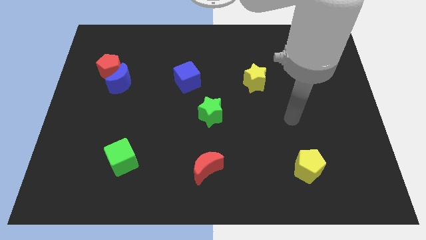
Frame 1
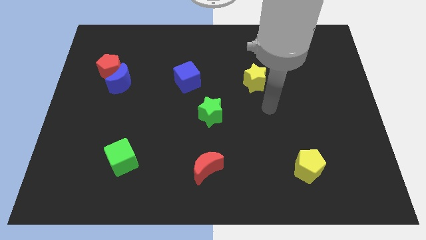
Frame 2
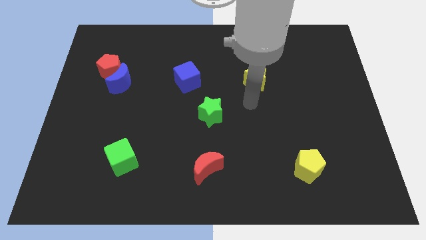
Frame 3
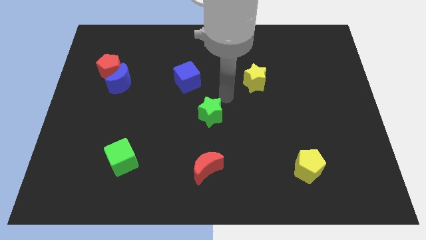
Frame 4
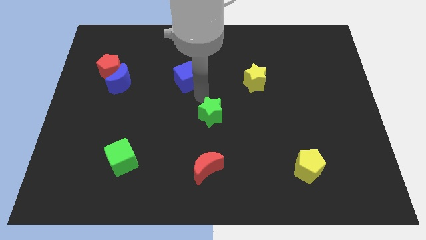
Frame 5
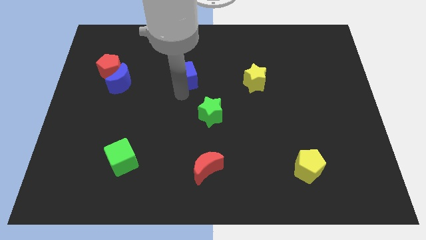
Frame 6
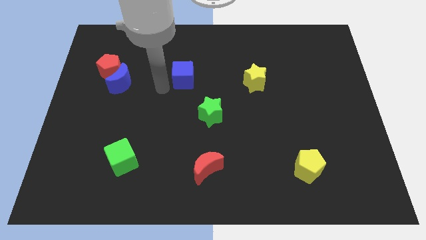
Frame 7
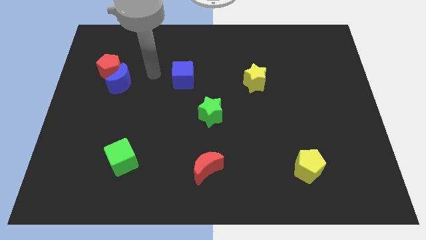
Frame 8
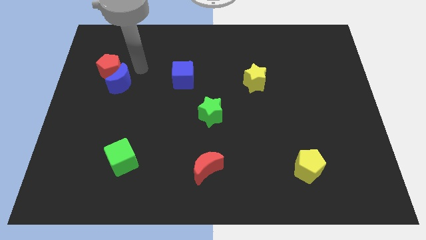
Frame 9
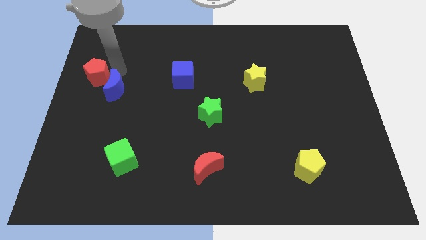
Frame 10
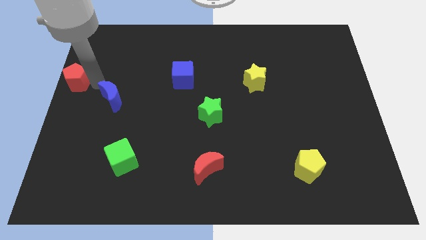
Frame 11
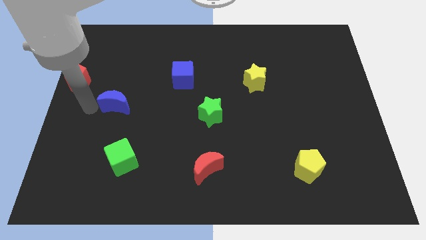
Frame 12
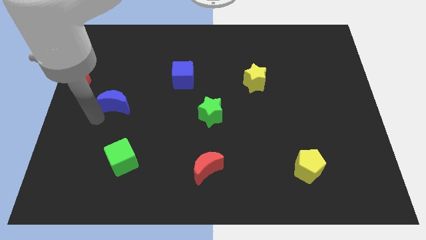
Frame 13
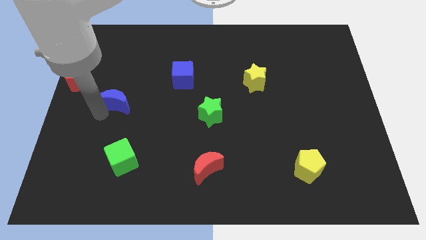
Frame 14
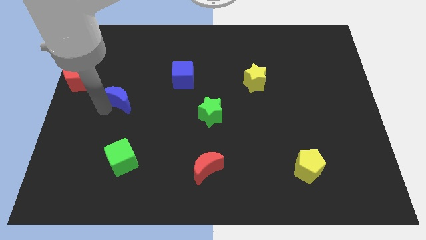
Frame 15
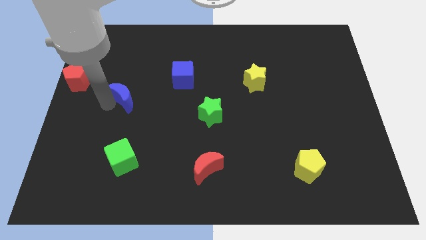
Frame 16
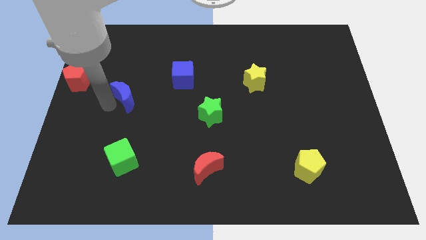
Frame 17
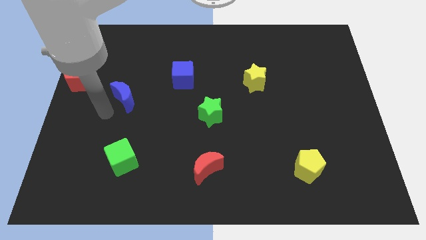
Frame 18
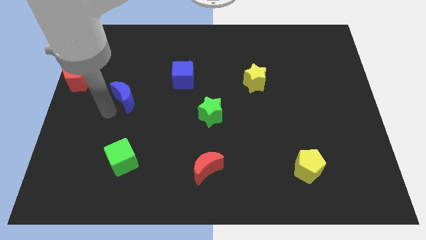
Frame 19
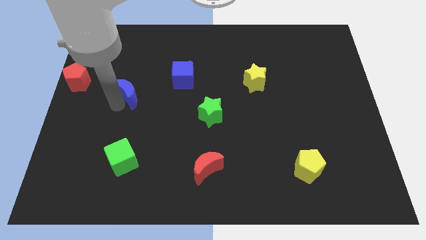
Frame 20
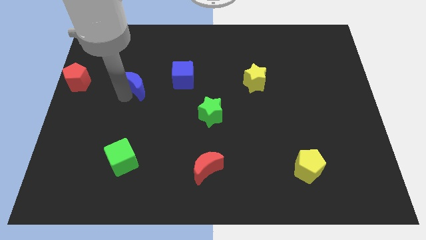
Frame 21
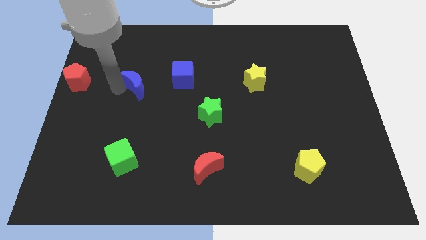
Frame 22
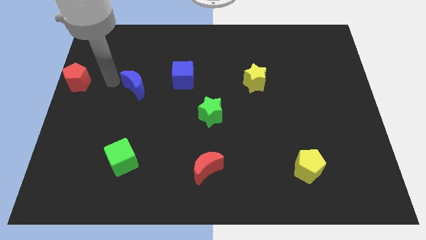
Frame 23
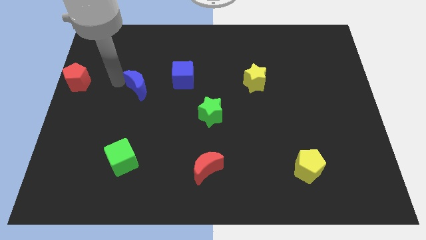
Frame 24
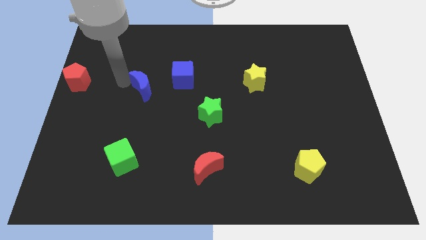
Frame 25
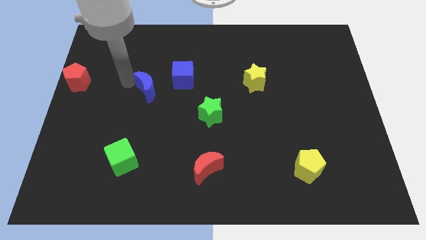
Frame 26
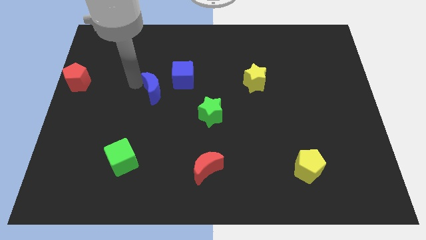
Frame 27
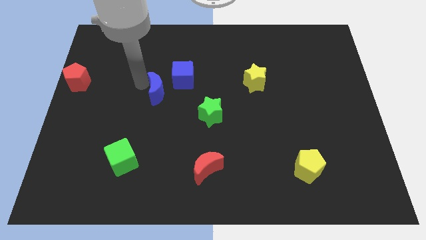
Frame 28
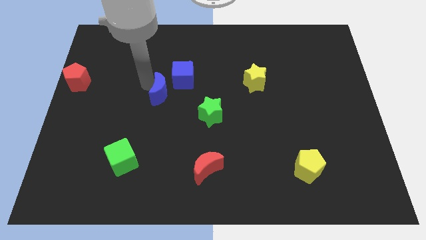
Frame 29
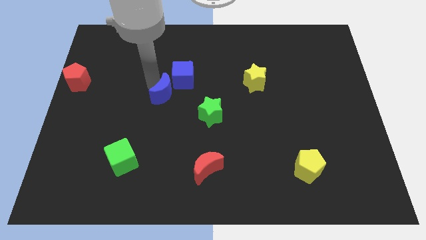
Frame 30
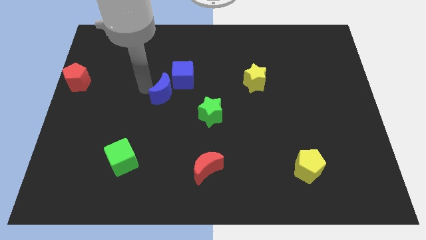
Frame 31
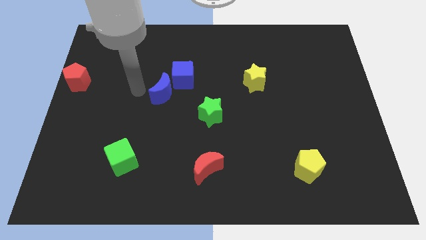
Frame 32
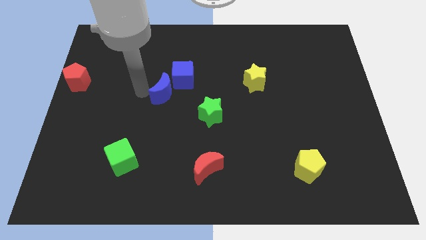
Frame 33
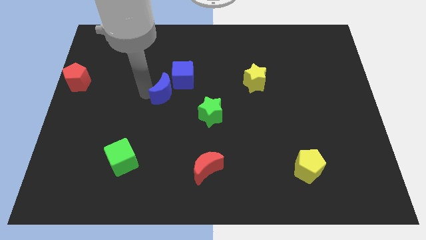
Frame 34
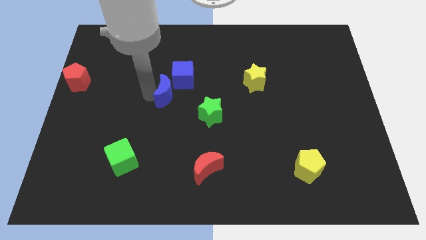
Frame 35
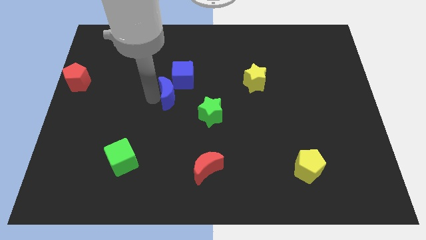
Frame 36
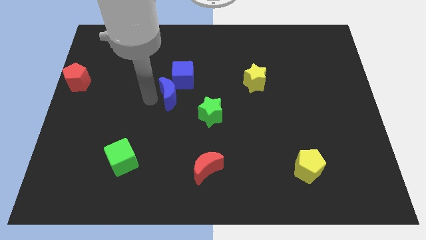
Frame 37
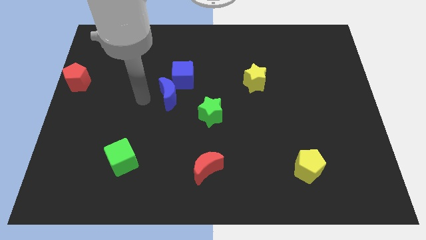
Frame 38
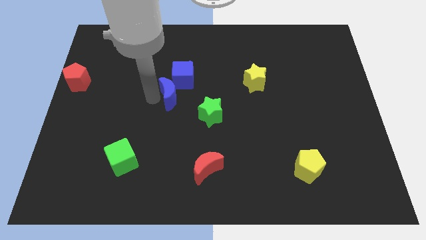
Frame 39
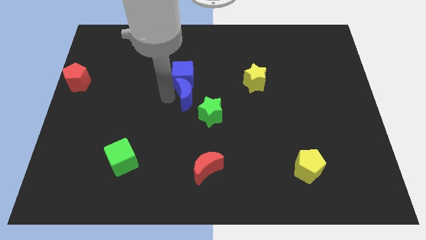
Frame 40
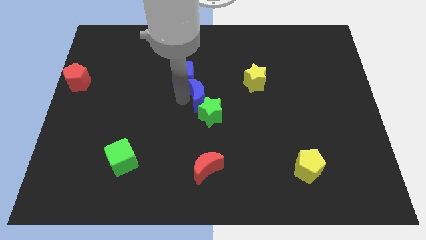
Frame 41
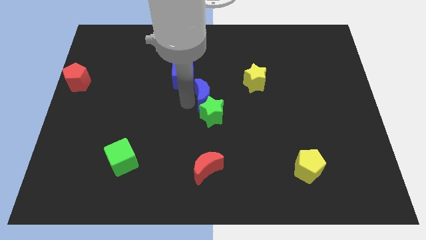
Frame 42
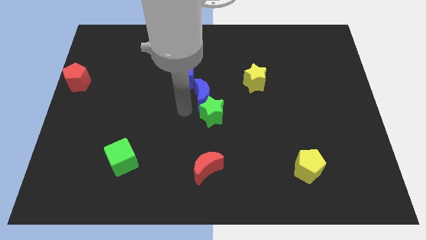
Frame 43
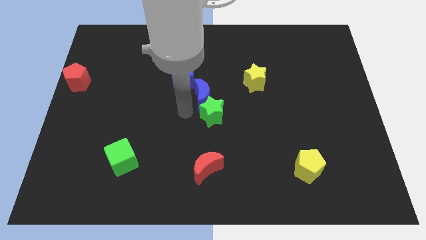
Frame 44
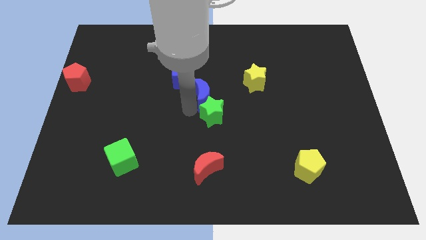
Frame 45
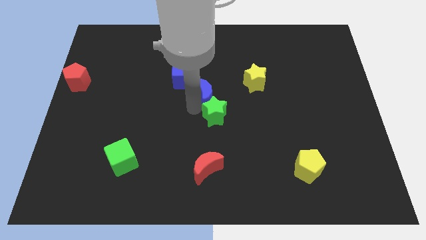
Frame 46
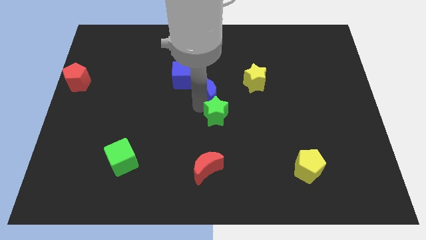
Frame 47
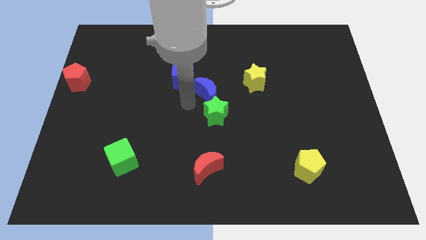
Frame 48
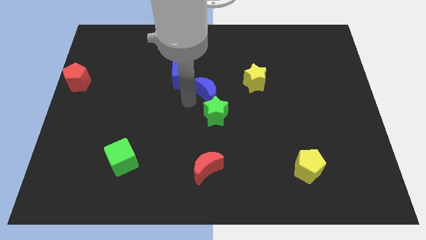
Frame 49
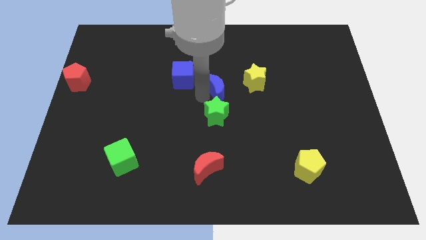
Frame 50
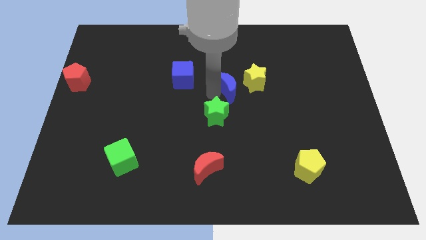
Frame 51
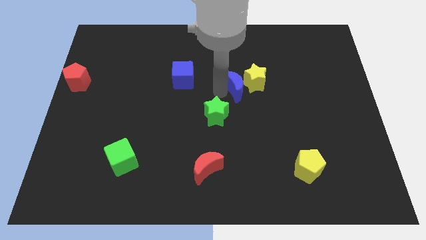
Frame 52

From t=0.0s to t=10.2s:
move the blue moon to the yellow star

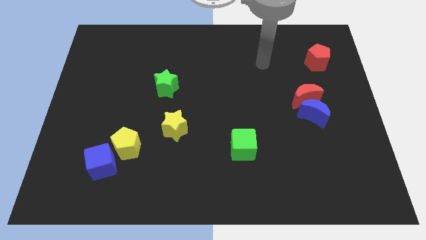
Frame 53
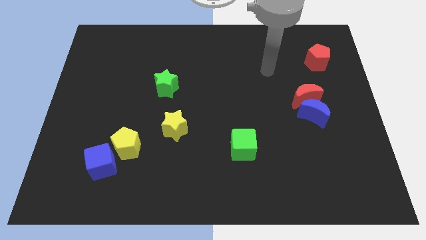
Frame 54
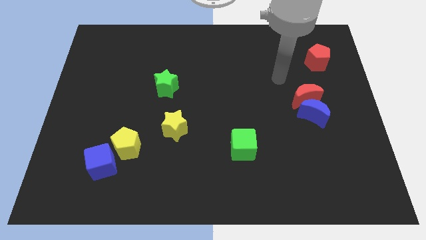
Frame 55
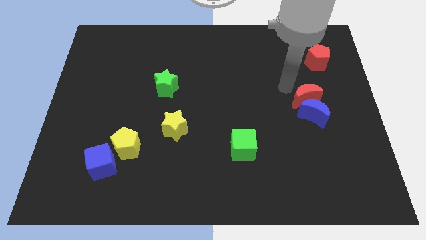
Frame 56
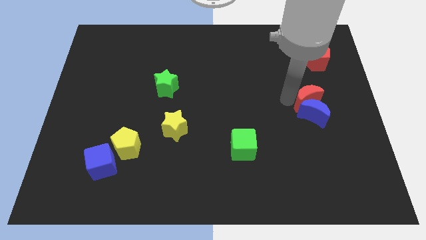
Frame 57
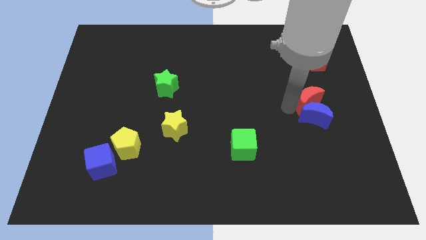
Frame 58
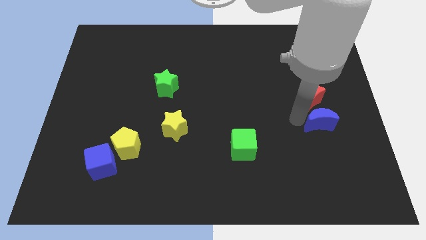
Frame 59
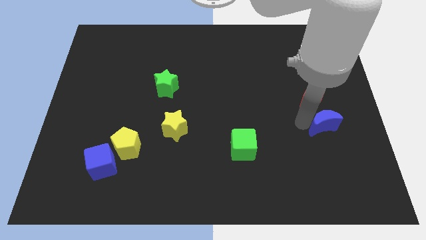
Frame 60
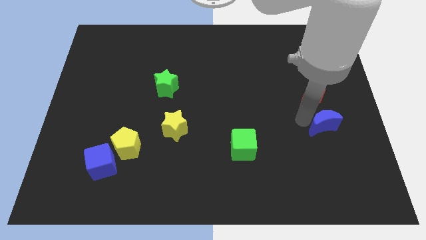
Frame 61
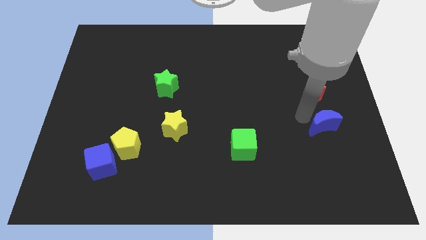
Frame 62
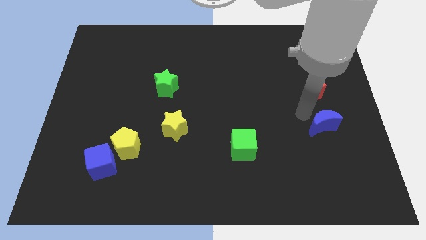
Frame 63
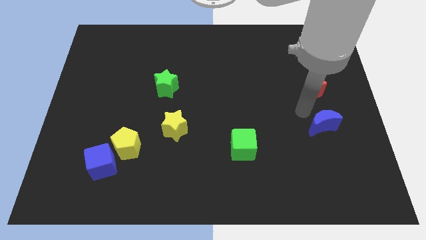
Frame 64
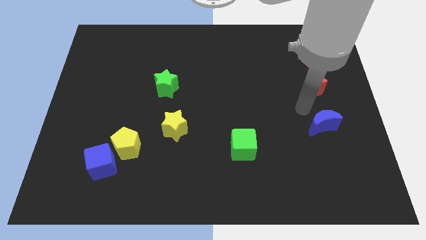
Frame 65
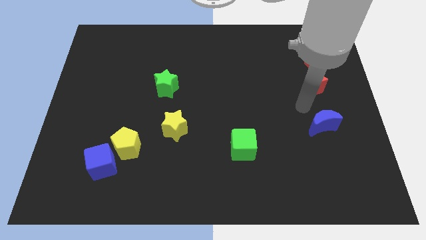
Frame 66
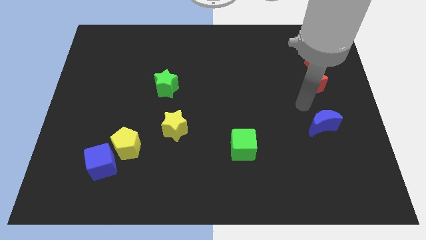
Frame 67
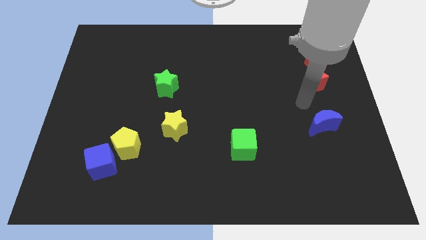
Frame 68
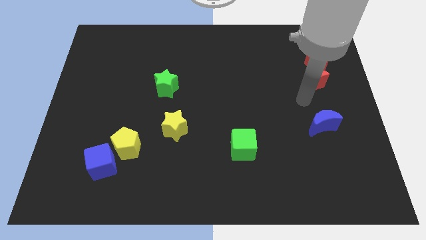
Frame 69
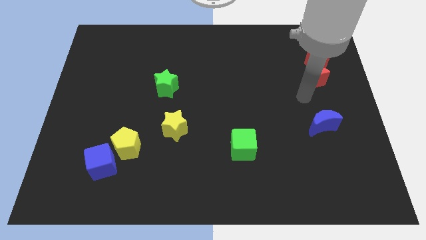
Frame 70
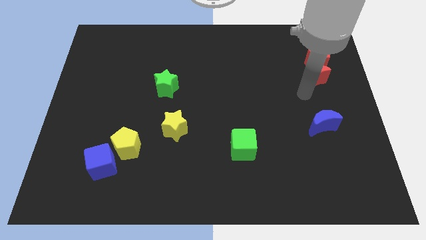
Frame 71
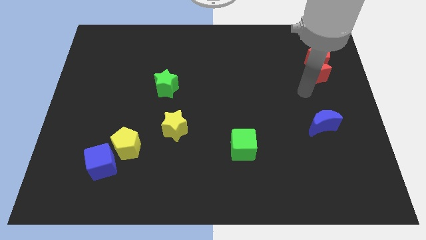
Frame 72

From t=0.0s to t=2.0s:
move the red moon towards the red pentagon
